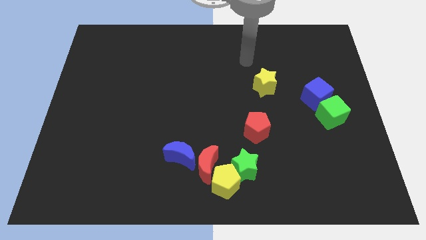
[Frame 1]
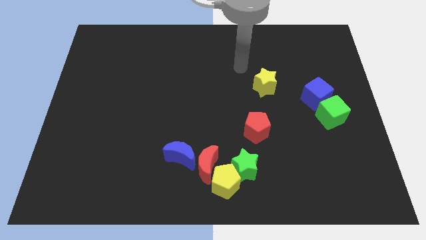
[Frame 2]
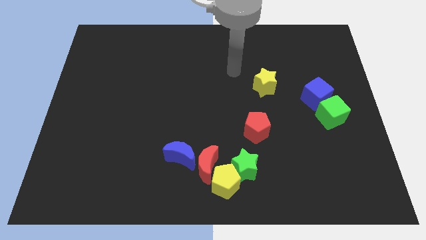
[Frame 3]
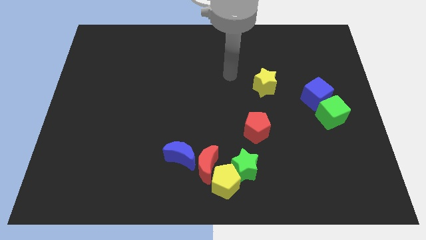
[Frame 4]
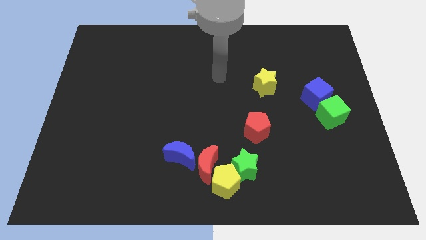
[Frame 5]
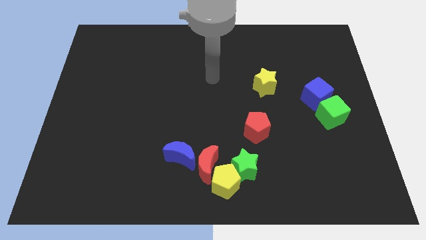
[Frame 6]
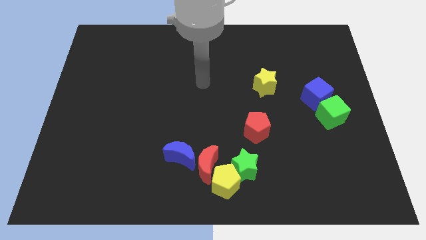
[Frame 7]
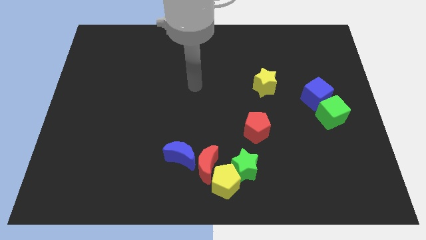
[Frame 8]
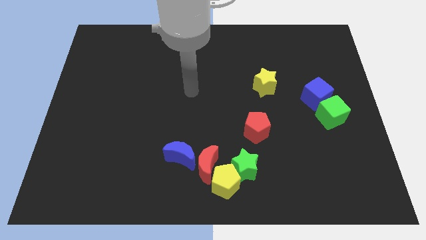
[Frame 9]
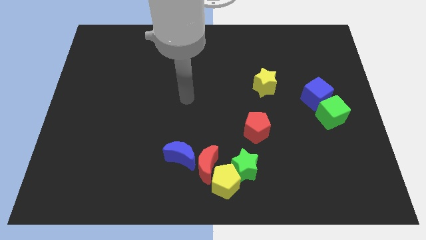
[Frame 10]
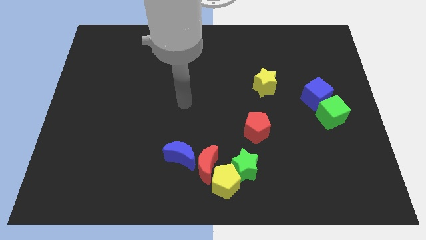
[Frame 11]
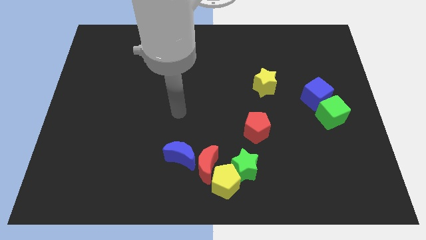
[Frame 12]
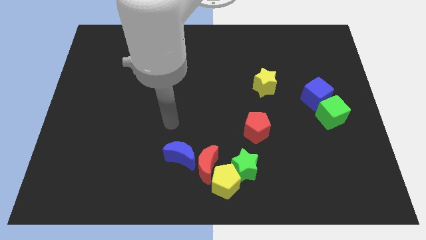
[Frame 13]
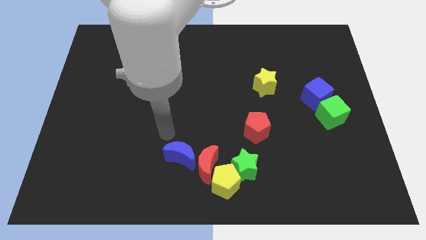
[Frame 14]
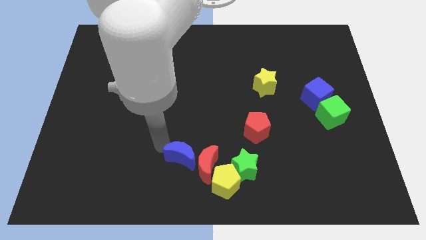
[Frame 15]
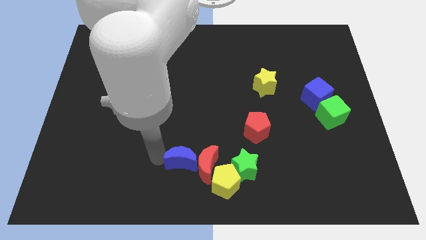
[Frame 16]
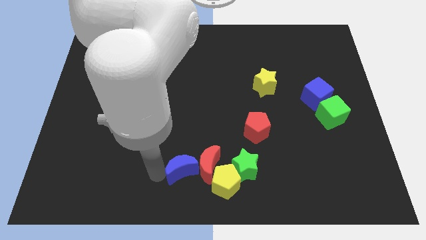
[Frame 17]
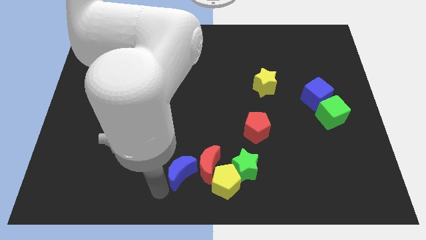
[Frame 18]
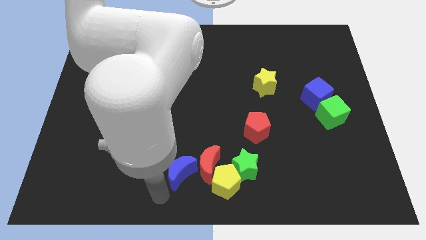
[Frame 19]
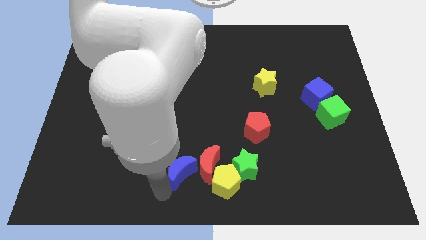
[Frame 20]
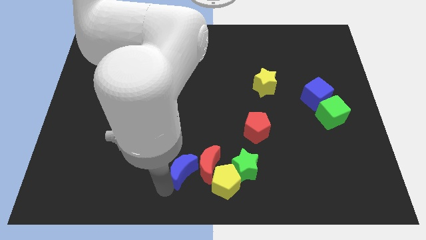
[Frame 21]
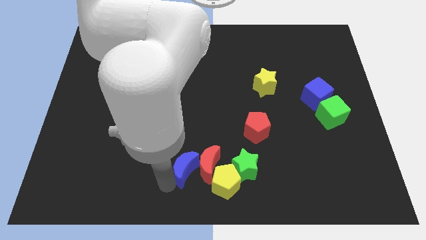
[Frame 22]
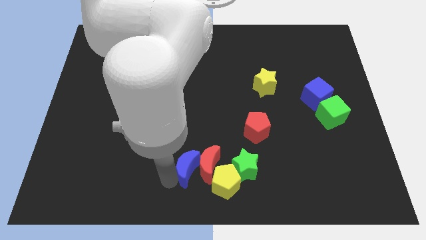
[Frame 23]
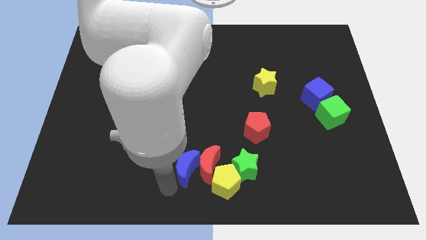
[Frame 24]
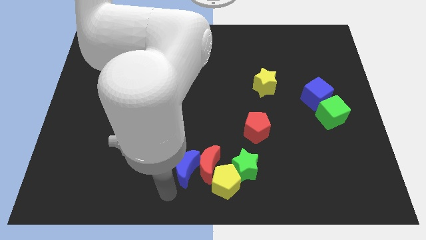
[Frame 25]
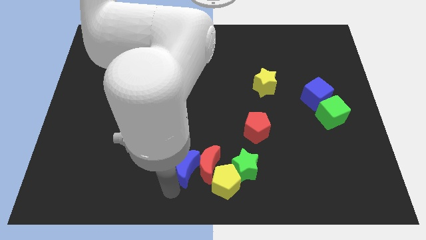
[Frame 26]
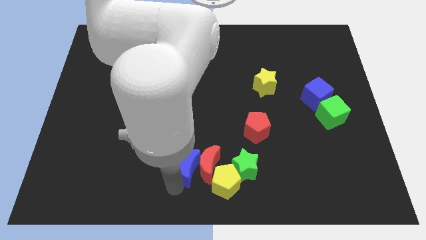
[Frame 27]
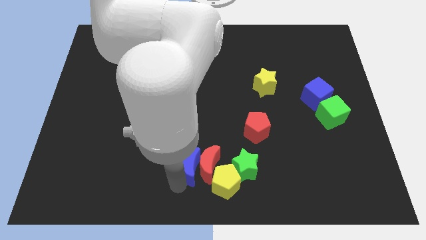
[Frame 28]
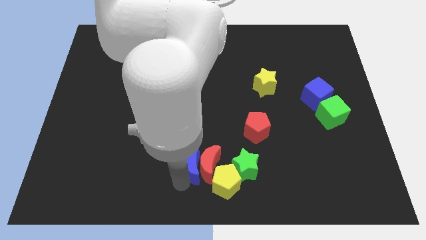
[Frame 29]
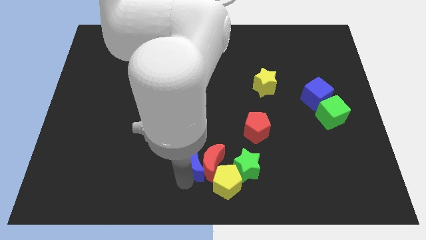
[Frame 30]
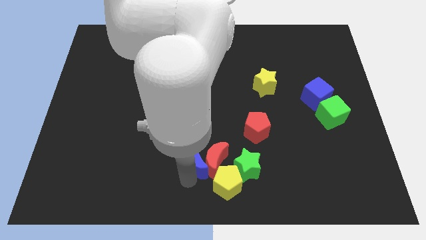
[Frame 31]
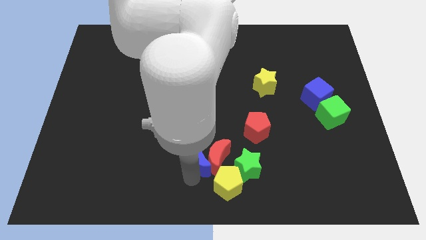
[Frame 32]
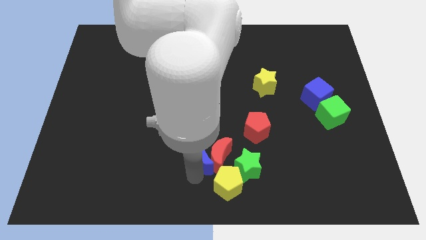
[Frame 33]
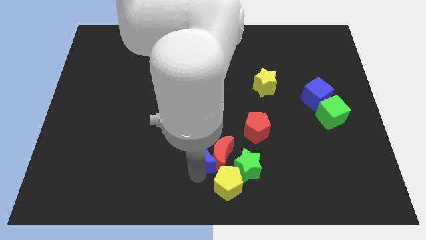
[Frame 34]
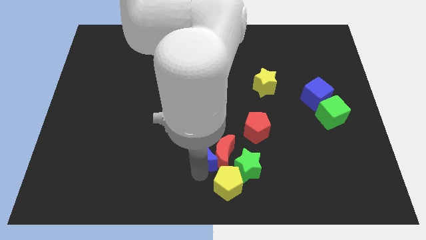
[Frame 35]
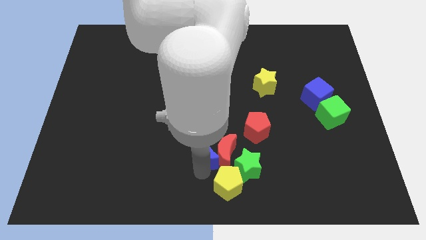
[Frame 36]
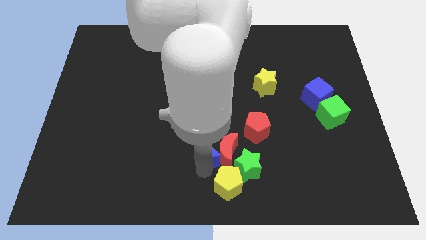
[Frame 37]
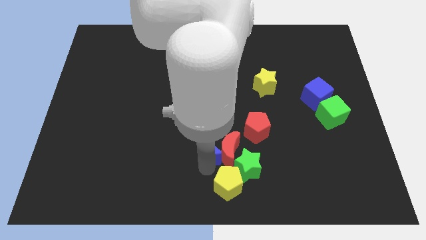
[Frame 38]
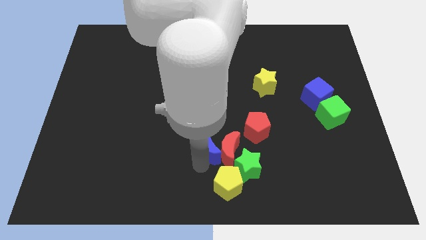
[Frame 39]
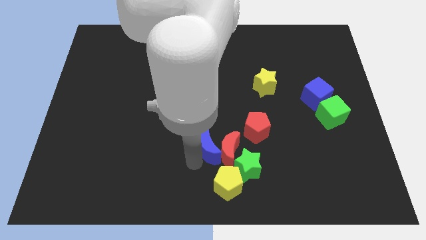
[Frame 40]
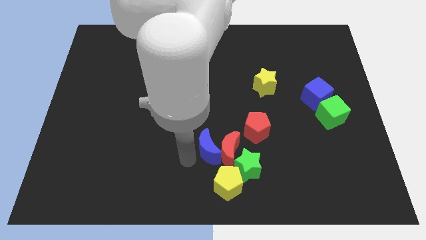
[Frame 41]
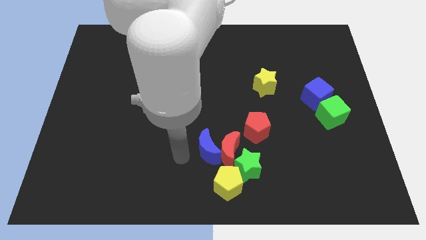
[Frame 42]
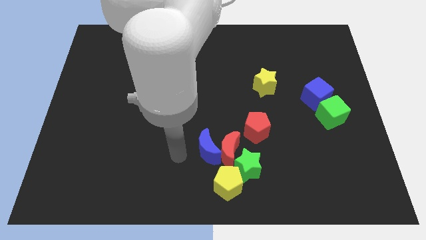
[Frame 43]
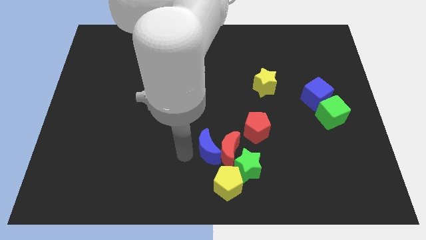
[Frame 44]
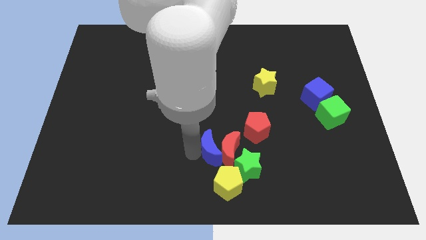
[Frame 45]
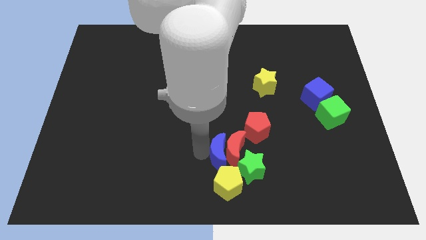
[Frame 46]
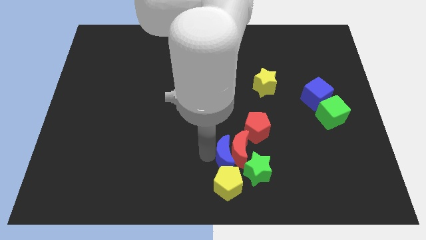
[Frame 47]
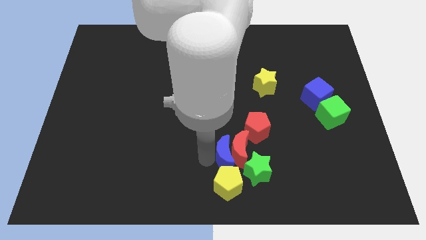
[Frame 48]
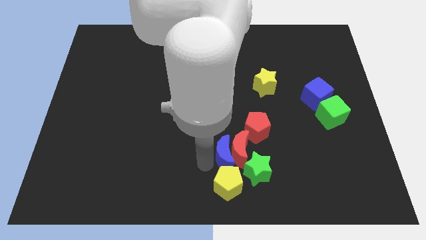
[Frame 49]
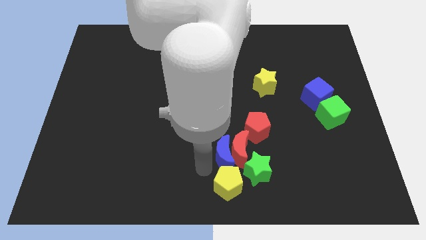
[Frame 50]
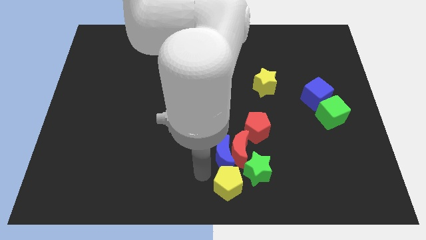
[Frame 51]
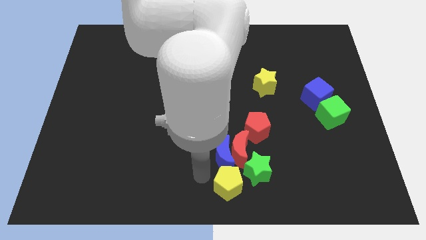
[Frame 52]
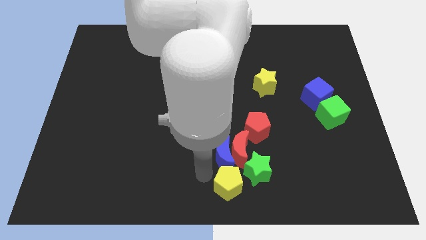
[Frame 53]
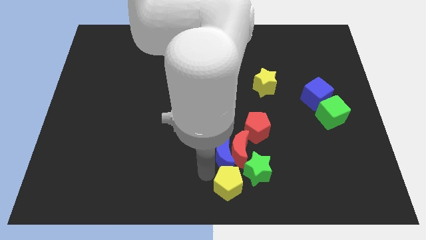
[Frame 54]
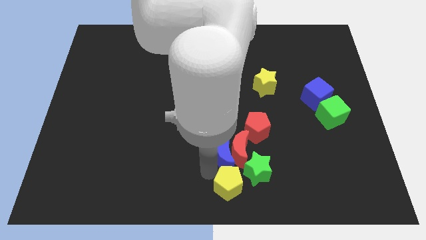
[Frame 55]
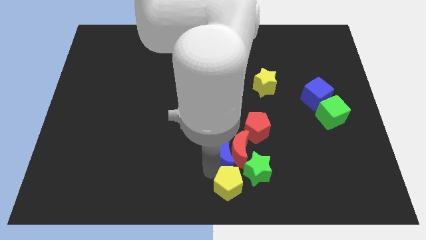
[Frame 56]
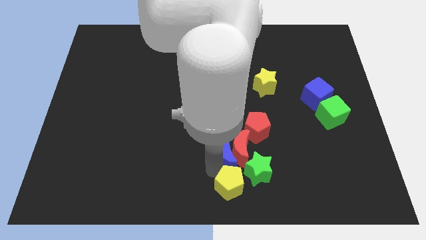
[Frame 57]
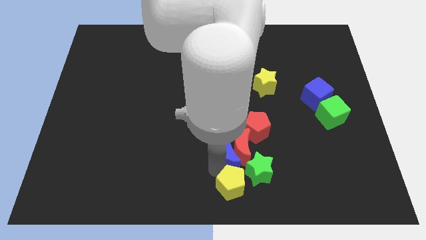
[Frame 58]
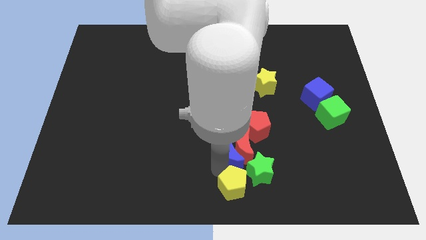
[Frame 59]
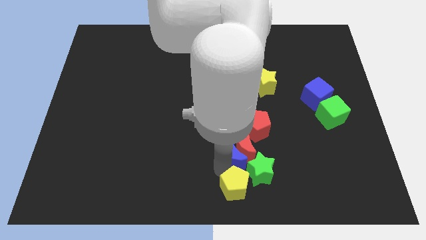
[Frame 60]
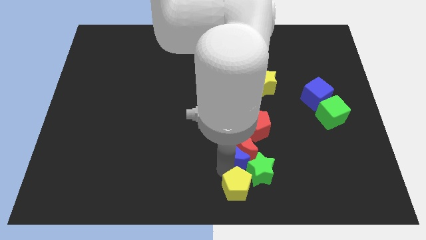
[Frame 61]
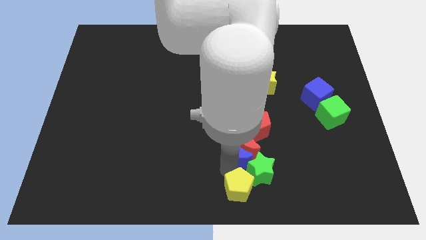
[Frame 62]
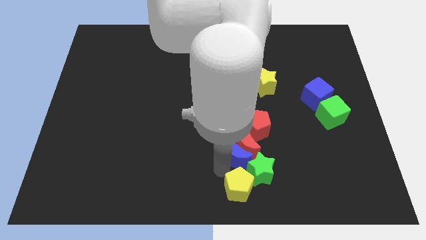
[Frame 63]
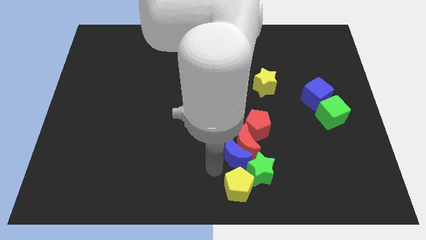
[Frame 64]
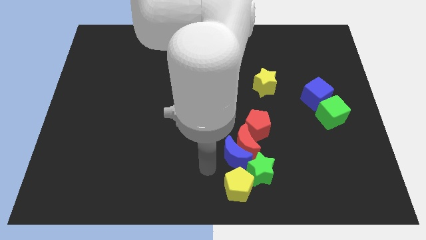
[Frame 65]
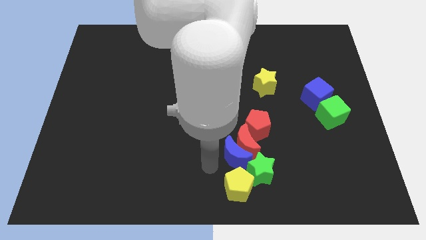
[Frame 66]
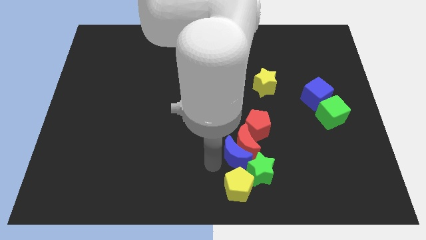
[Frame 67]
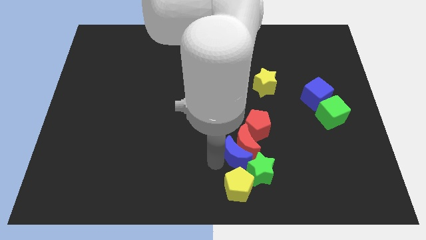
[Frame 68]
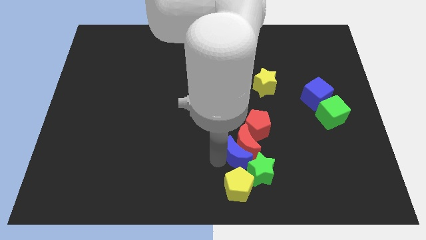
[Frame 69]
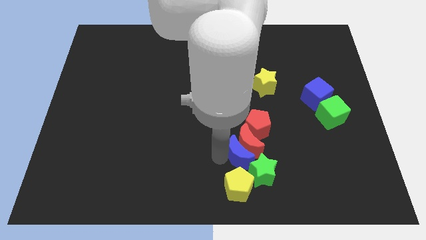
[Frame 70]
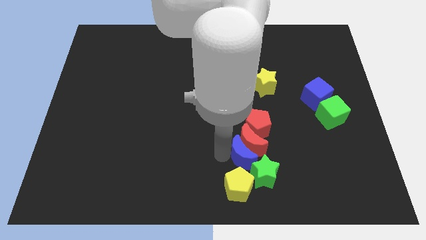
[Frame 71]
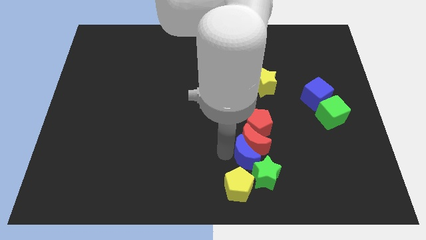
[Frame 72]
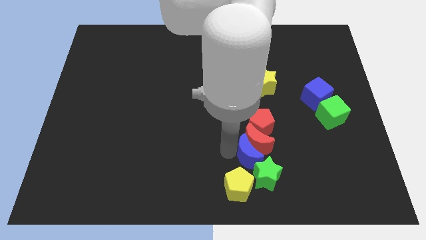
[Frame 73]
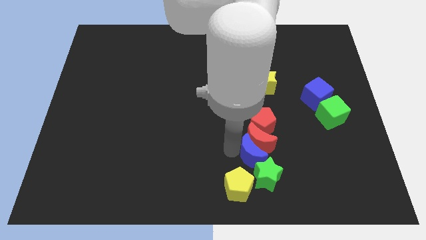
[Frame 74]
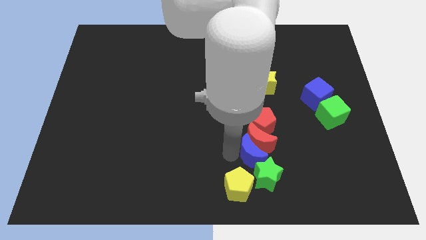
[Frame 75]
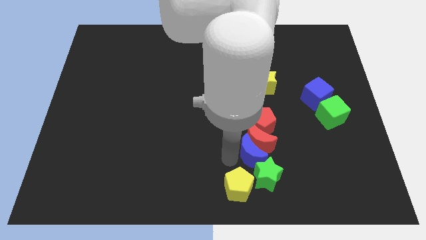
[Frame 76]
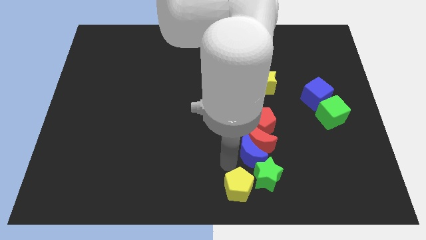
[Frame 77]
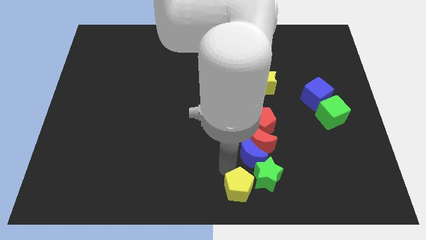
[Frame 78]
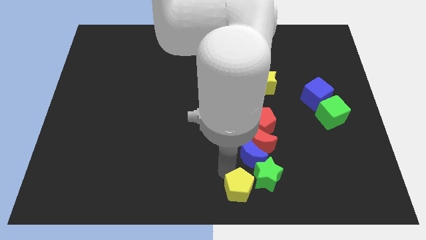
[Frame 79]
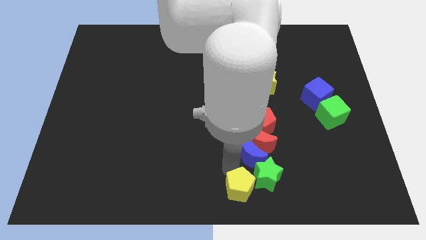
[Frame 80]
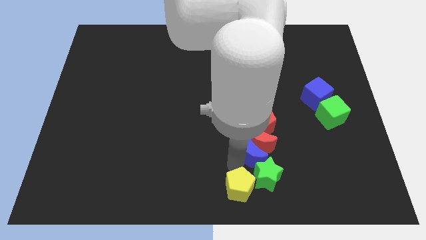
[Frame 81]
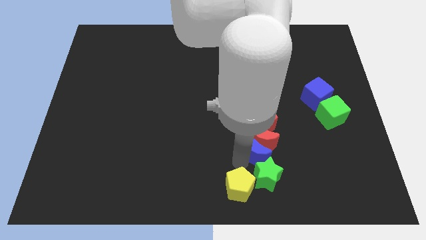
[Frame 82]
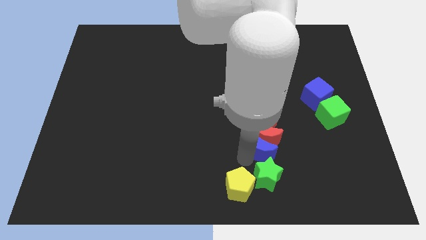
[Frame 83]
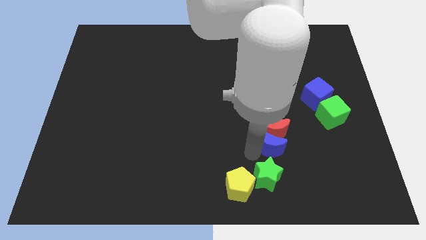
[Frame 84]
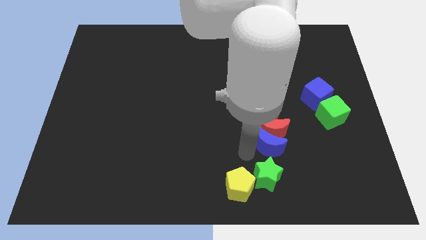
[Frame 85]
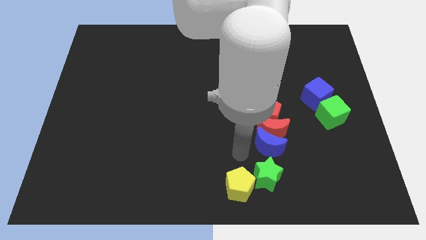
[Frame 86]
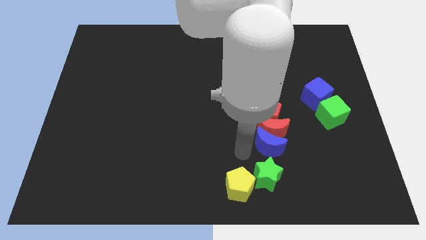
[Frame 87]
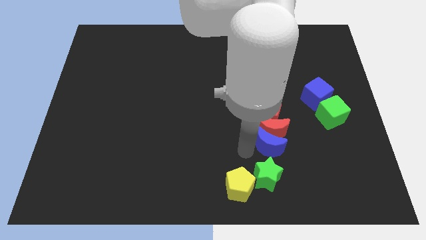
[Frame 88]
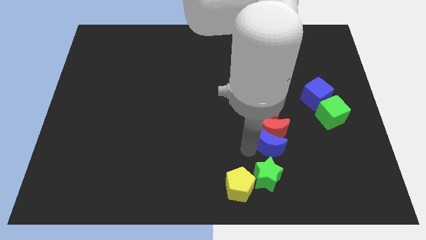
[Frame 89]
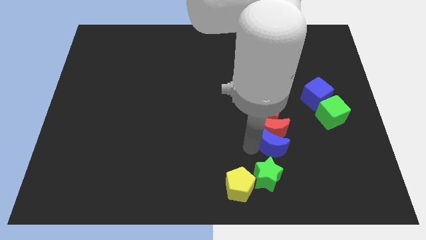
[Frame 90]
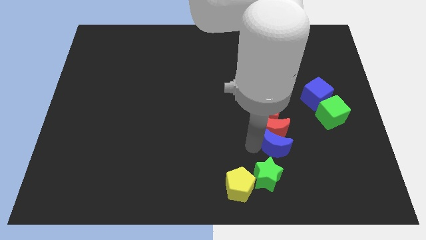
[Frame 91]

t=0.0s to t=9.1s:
slide the blue moon to the right
